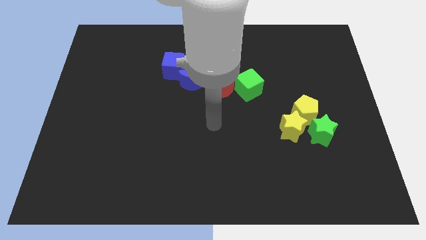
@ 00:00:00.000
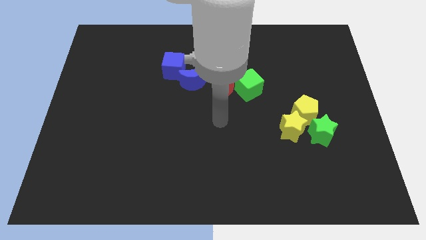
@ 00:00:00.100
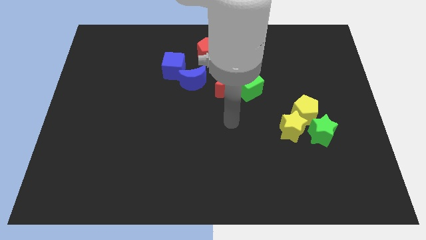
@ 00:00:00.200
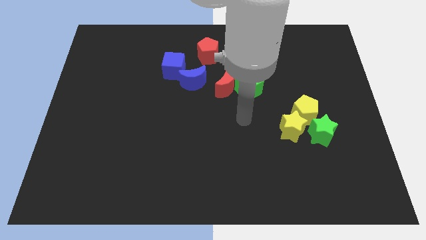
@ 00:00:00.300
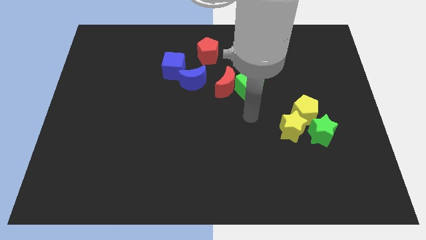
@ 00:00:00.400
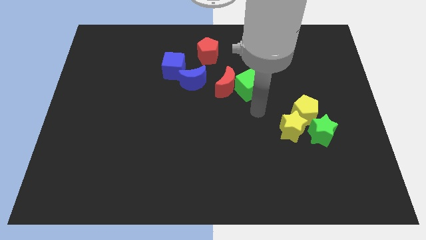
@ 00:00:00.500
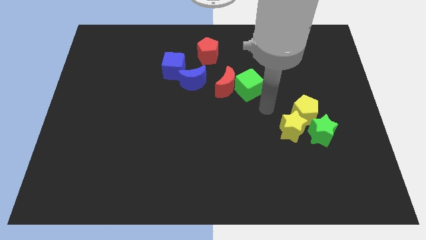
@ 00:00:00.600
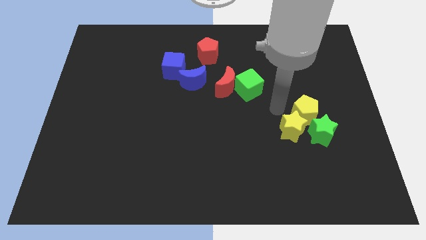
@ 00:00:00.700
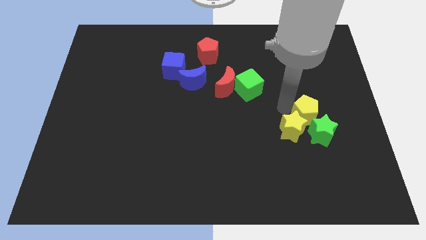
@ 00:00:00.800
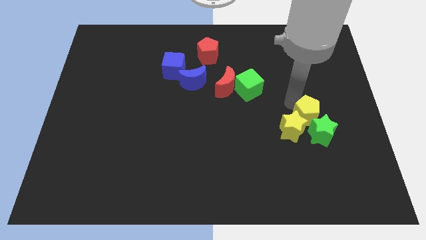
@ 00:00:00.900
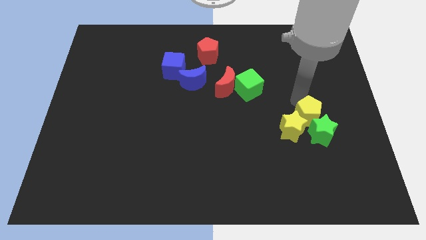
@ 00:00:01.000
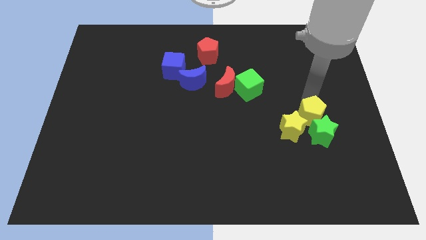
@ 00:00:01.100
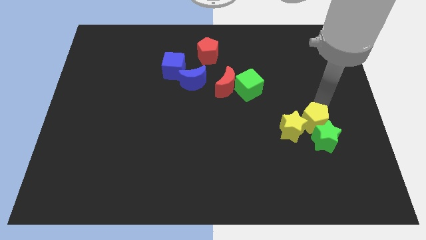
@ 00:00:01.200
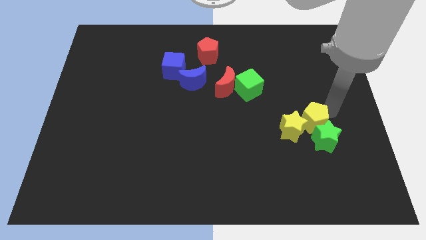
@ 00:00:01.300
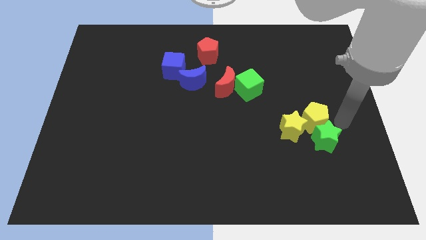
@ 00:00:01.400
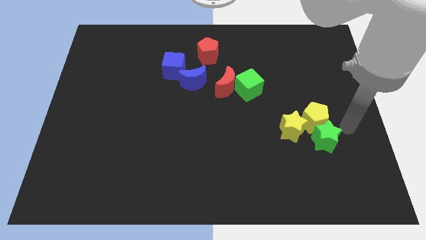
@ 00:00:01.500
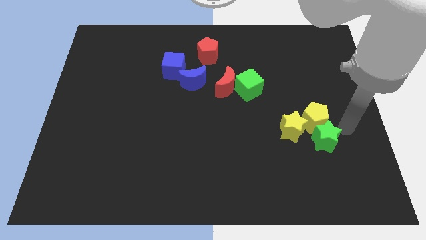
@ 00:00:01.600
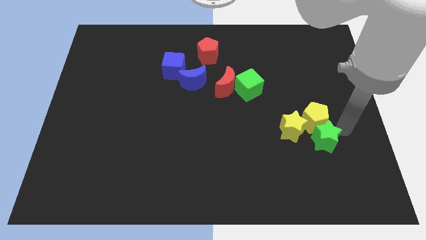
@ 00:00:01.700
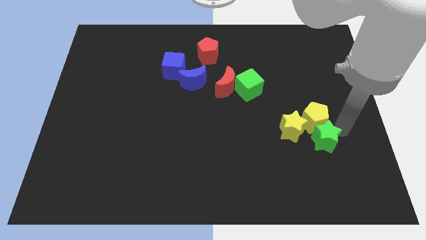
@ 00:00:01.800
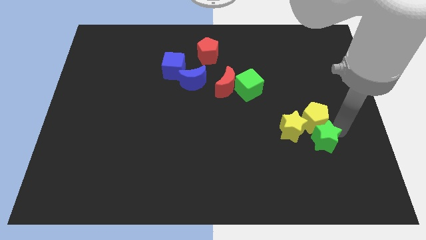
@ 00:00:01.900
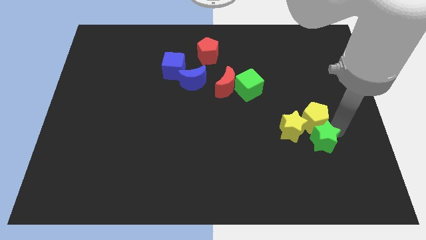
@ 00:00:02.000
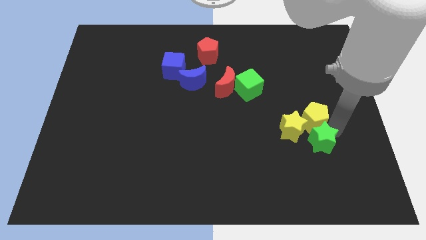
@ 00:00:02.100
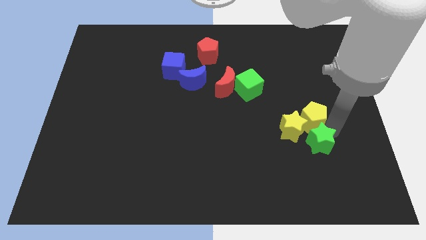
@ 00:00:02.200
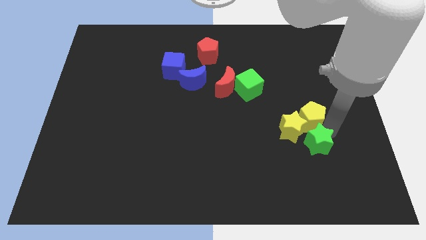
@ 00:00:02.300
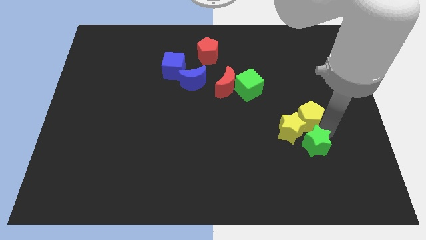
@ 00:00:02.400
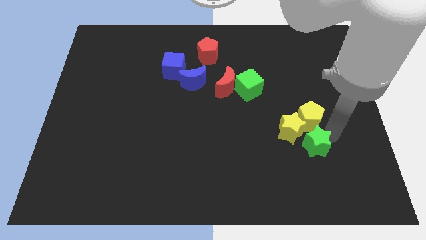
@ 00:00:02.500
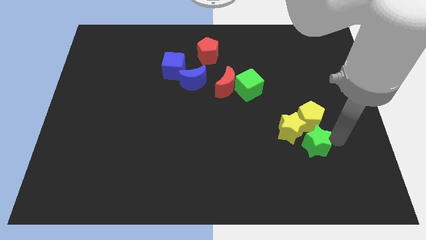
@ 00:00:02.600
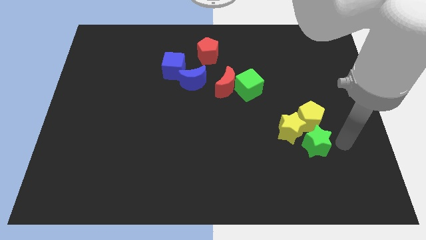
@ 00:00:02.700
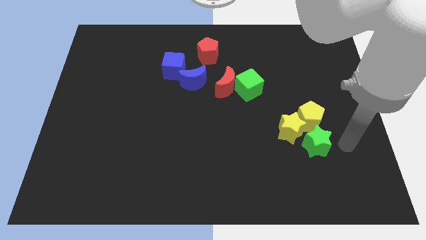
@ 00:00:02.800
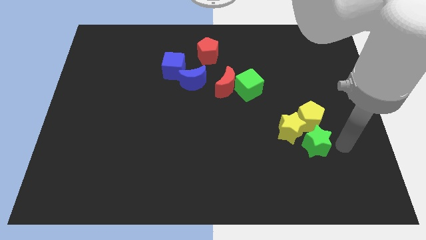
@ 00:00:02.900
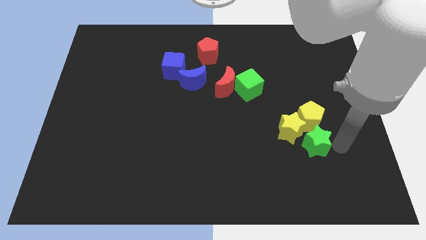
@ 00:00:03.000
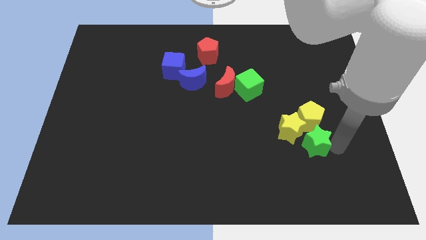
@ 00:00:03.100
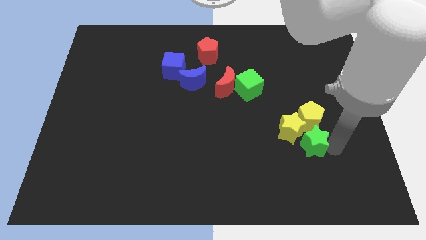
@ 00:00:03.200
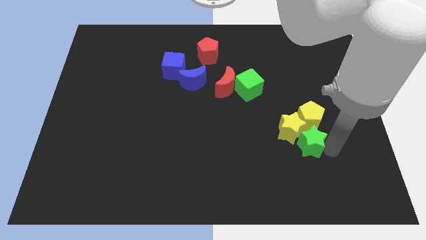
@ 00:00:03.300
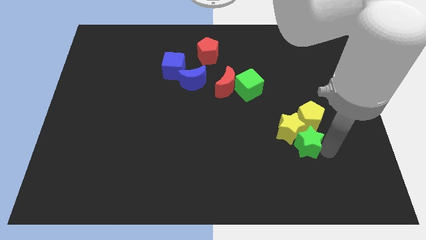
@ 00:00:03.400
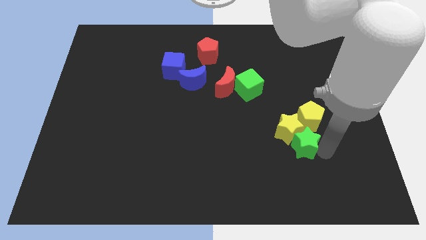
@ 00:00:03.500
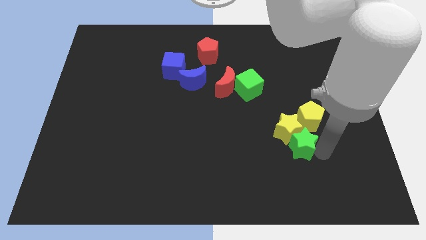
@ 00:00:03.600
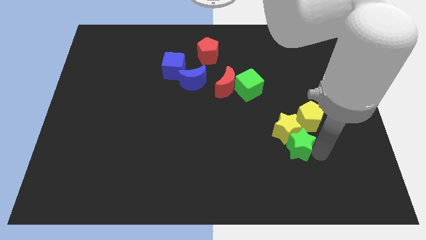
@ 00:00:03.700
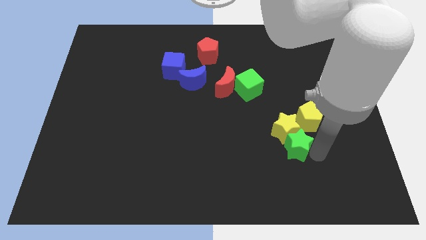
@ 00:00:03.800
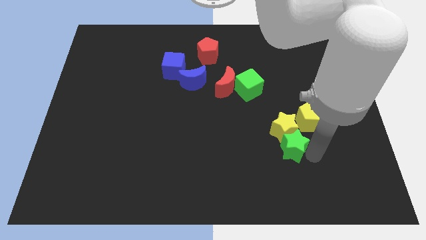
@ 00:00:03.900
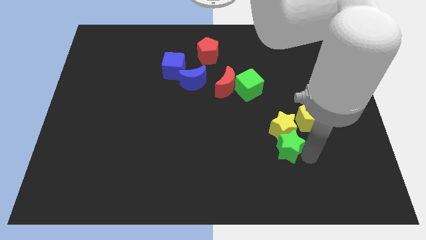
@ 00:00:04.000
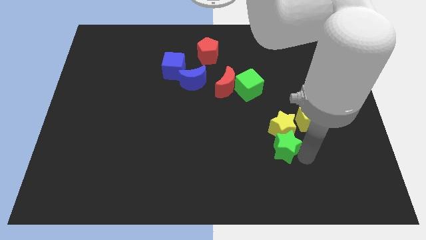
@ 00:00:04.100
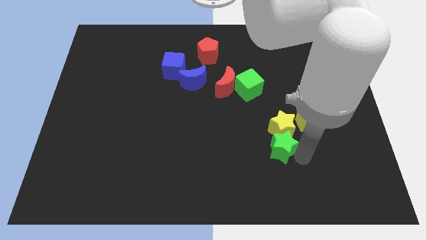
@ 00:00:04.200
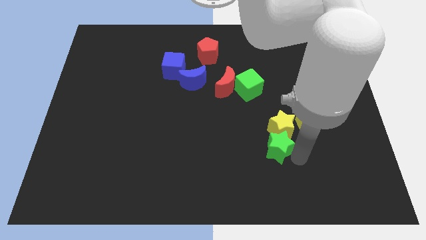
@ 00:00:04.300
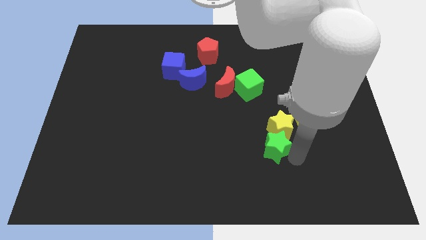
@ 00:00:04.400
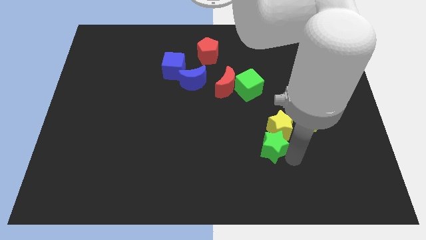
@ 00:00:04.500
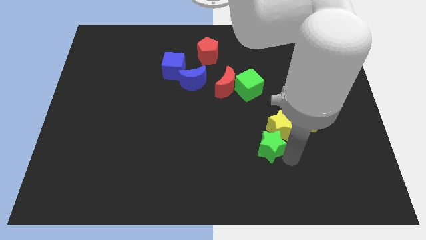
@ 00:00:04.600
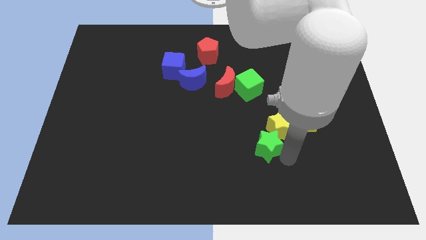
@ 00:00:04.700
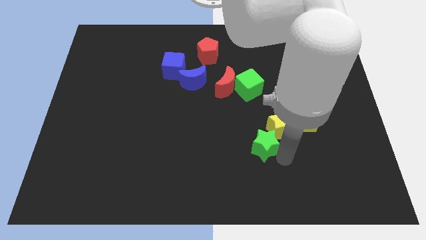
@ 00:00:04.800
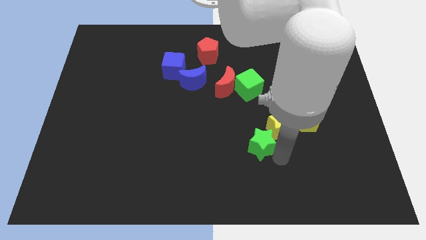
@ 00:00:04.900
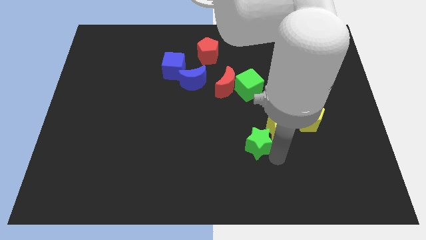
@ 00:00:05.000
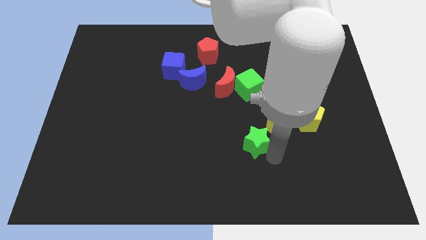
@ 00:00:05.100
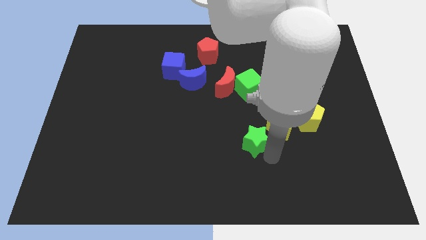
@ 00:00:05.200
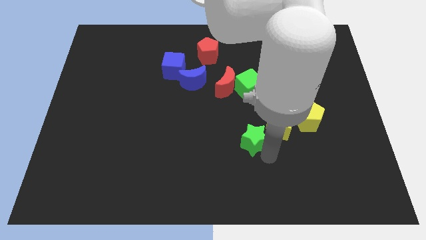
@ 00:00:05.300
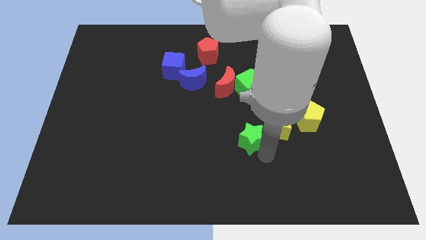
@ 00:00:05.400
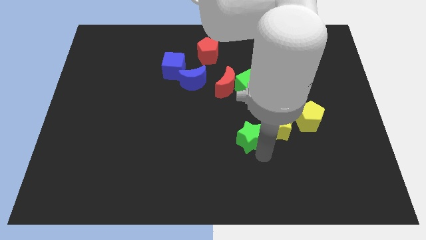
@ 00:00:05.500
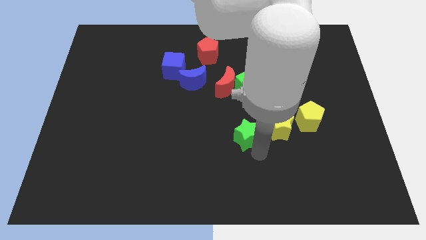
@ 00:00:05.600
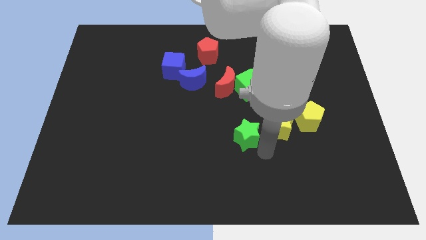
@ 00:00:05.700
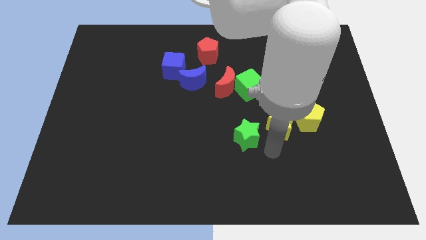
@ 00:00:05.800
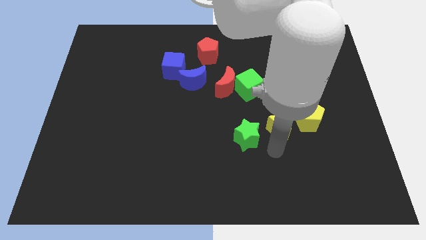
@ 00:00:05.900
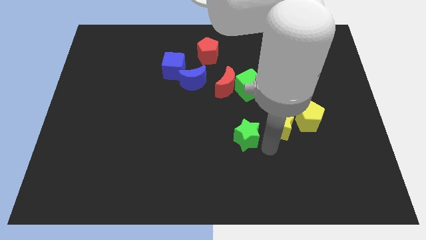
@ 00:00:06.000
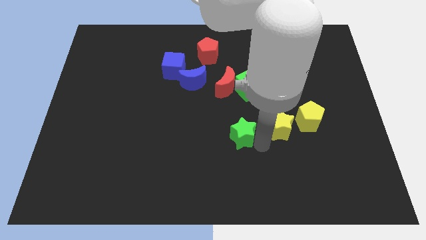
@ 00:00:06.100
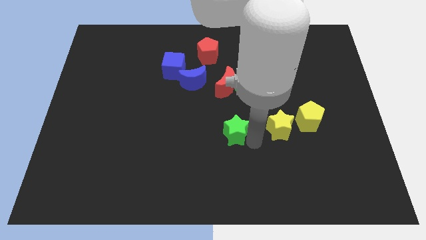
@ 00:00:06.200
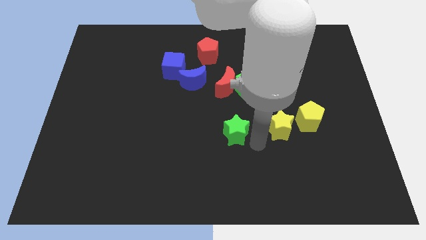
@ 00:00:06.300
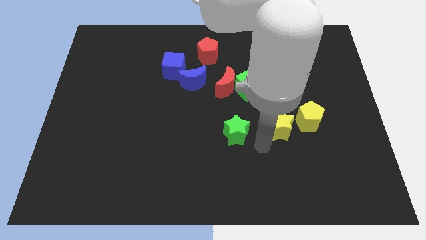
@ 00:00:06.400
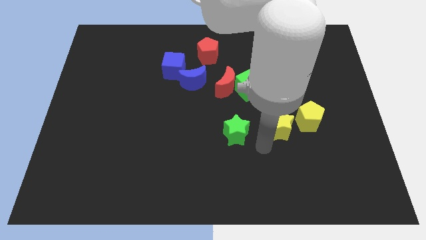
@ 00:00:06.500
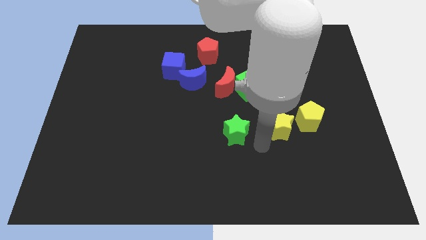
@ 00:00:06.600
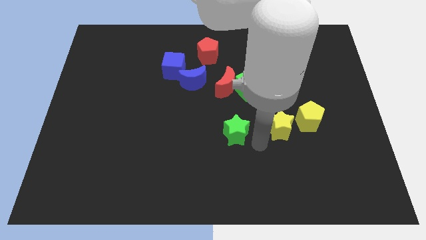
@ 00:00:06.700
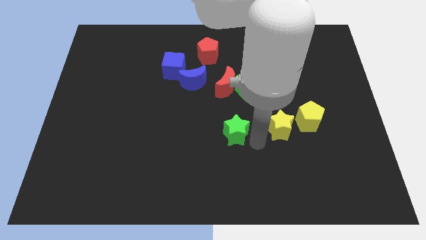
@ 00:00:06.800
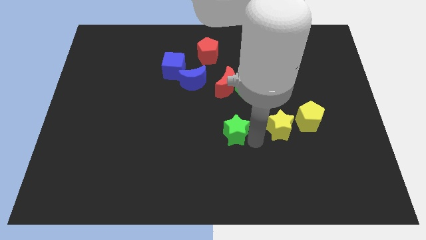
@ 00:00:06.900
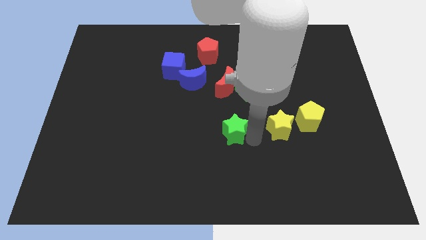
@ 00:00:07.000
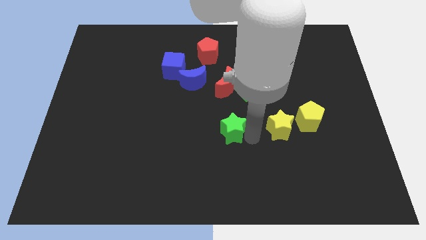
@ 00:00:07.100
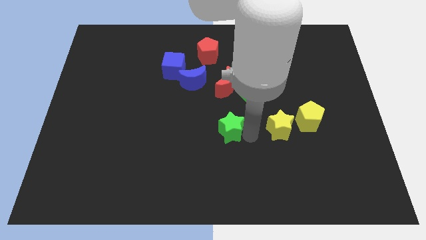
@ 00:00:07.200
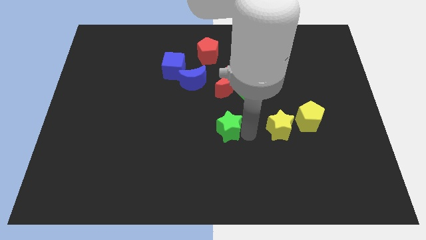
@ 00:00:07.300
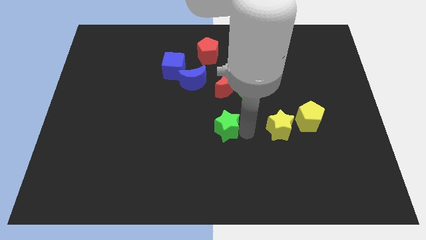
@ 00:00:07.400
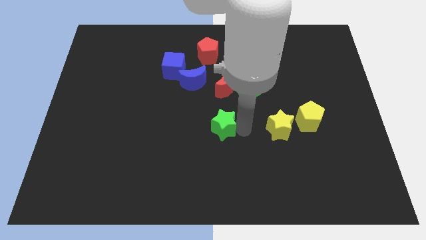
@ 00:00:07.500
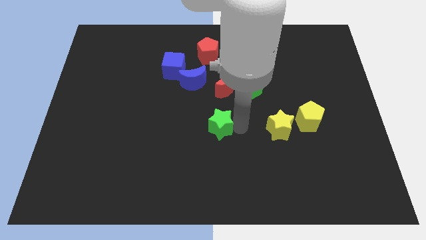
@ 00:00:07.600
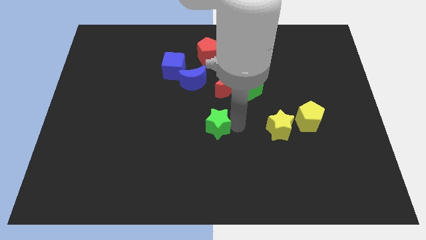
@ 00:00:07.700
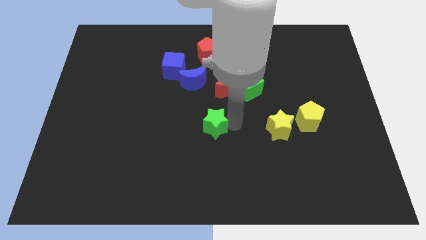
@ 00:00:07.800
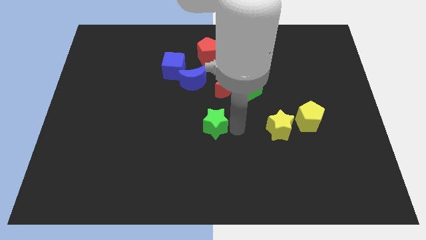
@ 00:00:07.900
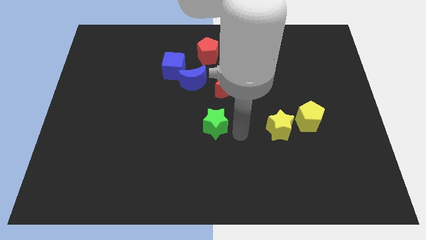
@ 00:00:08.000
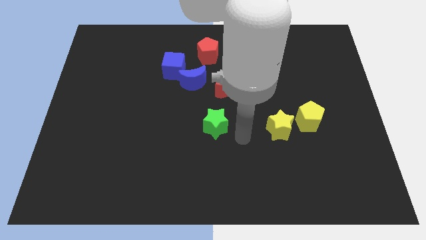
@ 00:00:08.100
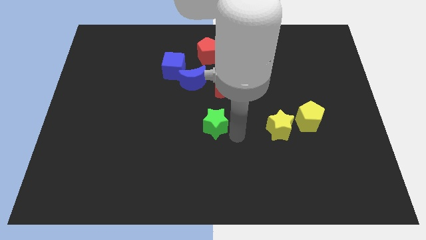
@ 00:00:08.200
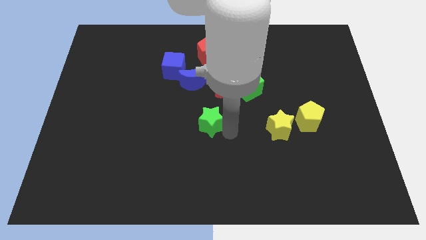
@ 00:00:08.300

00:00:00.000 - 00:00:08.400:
push the green star below the blue moon
